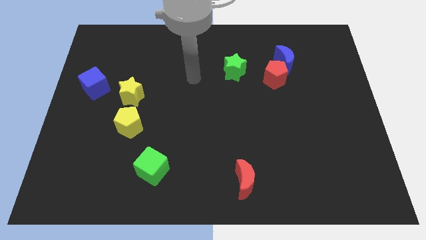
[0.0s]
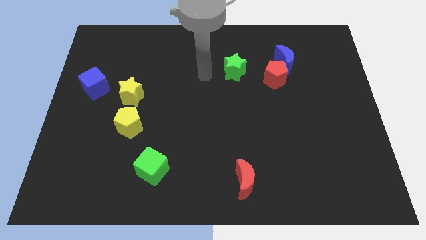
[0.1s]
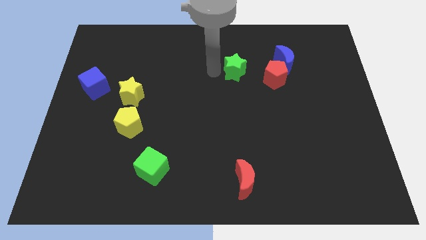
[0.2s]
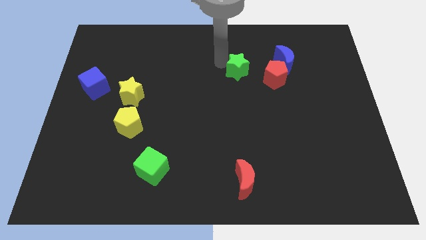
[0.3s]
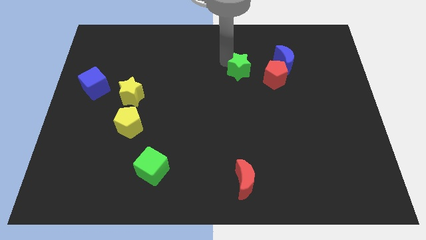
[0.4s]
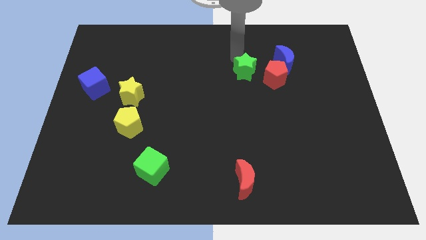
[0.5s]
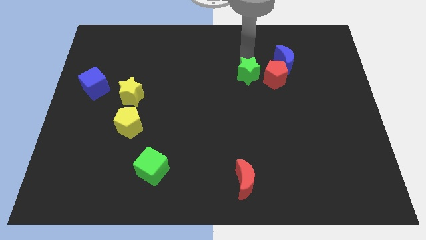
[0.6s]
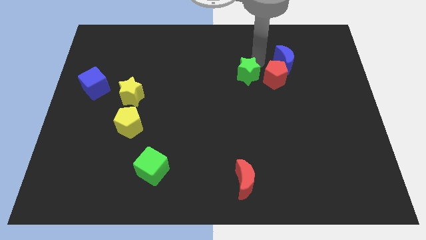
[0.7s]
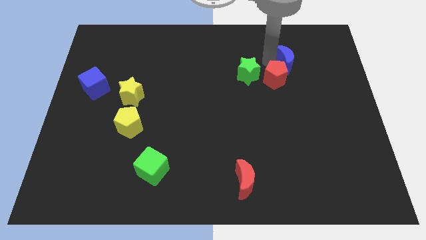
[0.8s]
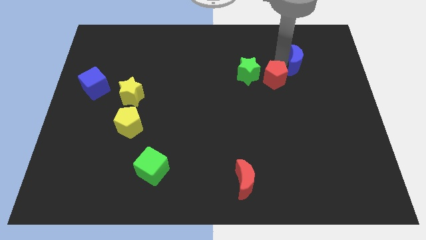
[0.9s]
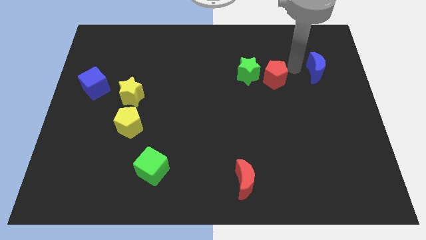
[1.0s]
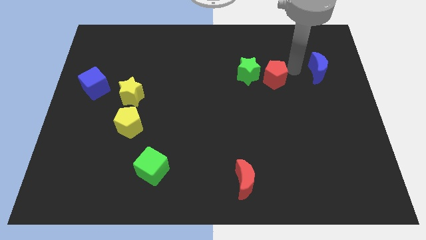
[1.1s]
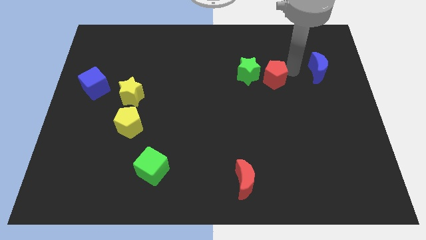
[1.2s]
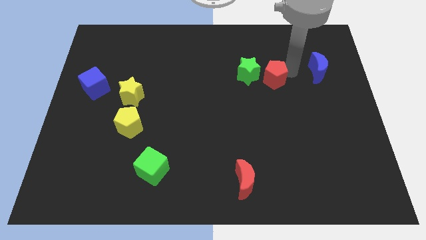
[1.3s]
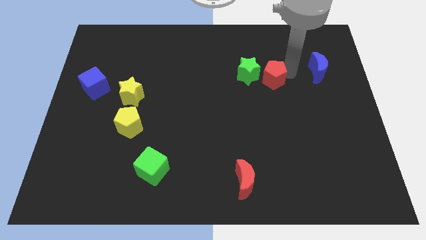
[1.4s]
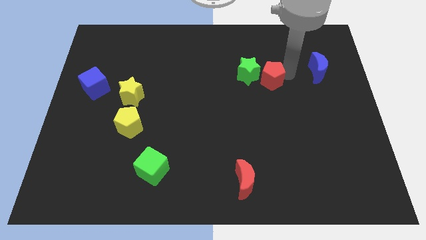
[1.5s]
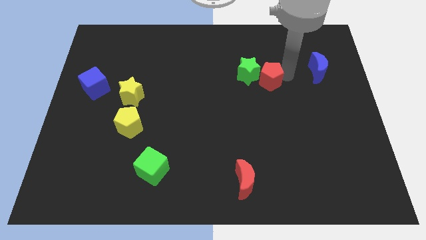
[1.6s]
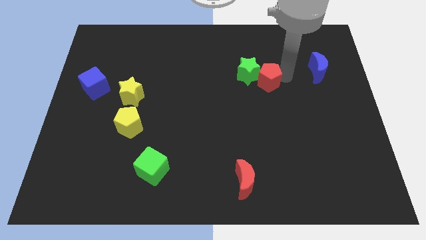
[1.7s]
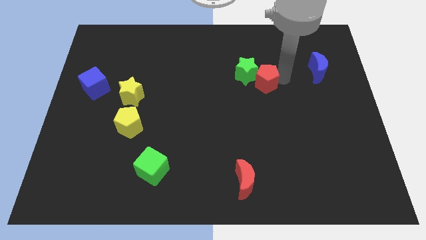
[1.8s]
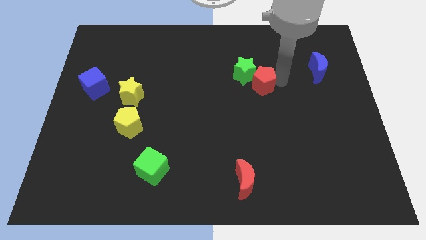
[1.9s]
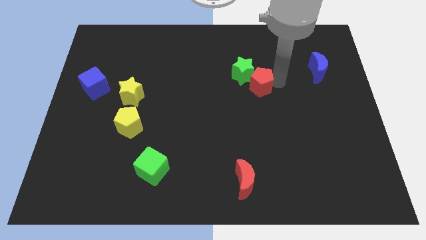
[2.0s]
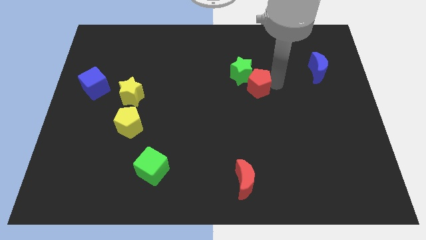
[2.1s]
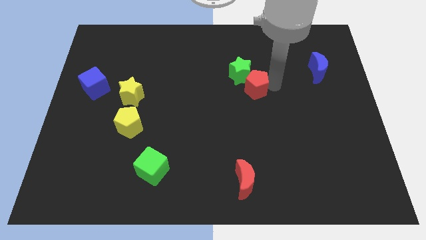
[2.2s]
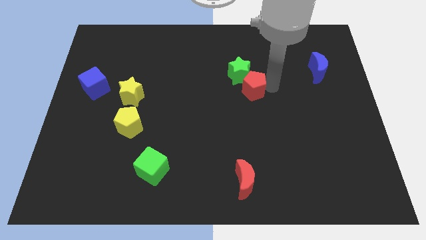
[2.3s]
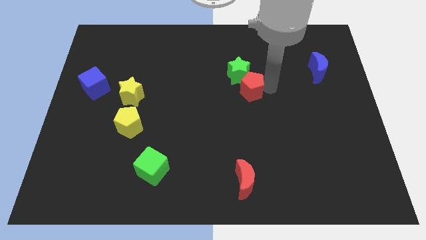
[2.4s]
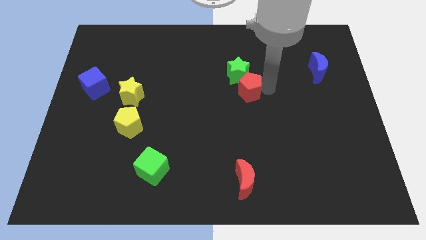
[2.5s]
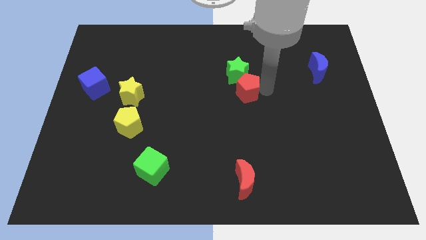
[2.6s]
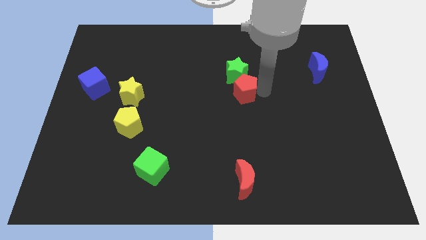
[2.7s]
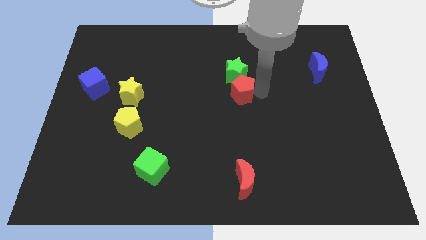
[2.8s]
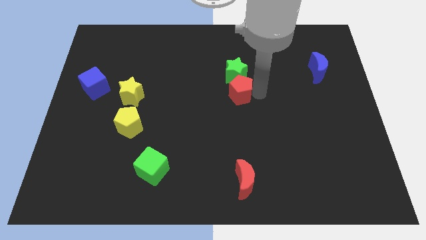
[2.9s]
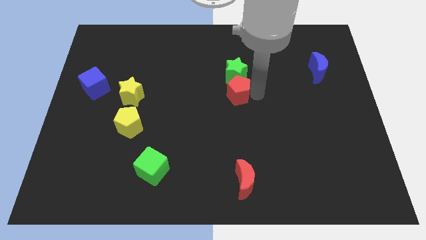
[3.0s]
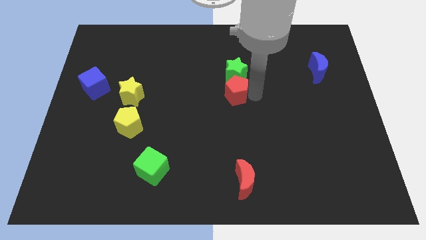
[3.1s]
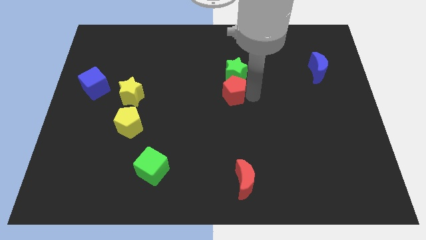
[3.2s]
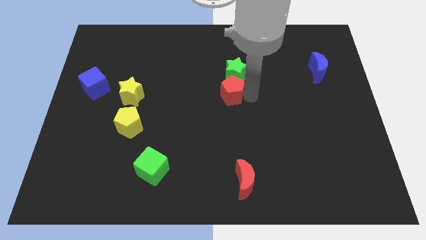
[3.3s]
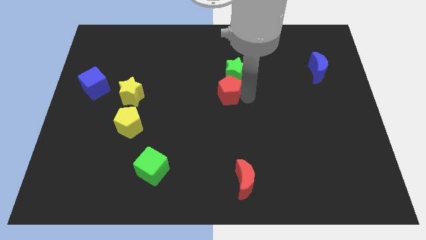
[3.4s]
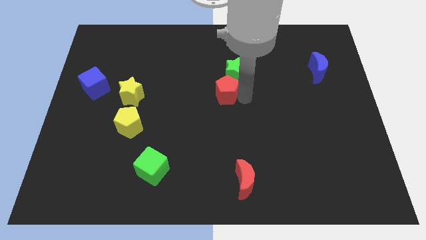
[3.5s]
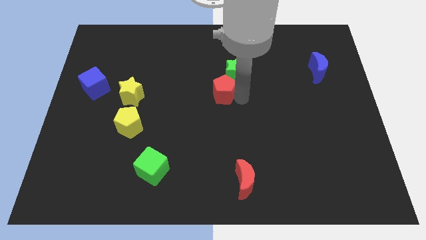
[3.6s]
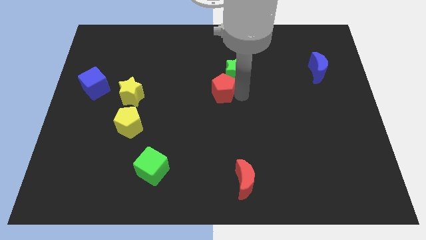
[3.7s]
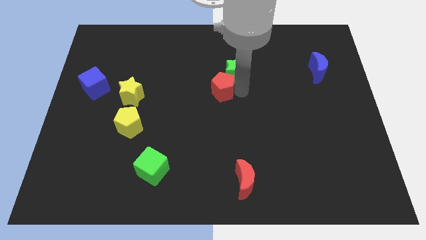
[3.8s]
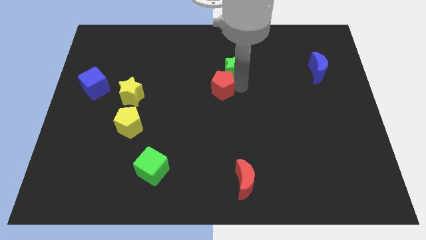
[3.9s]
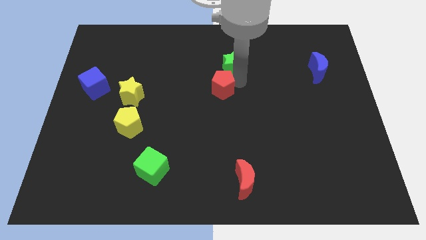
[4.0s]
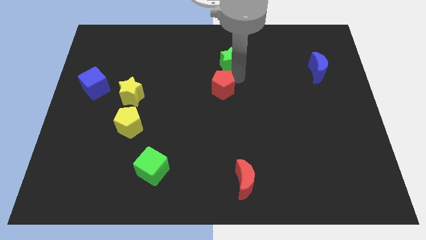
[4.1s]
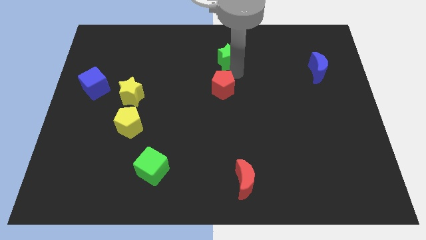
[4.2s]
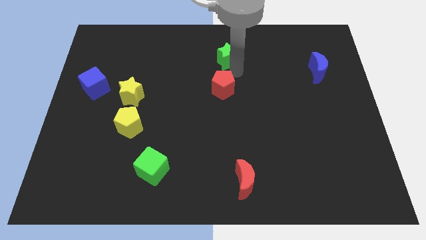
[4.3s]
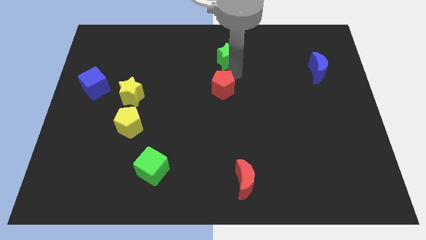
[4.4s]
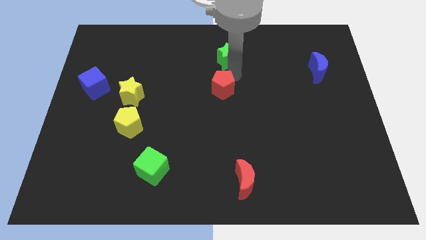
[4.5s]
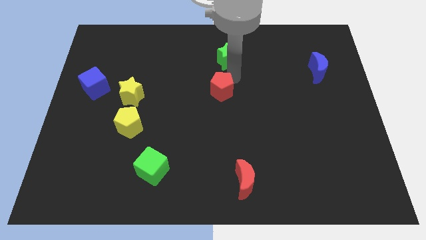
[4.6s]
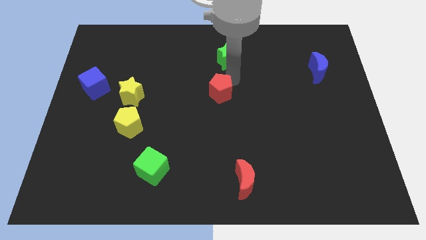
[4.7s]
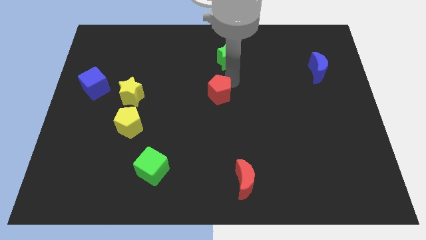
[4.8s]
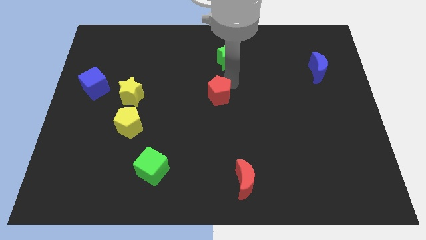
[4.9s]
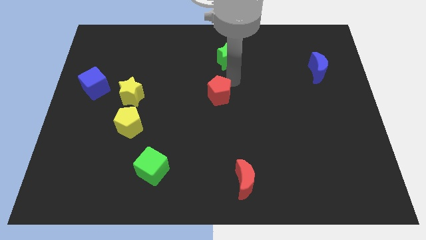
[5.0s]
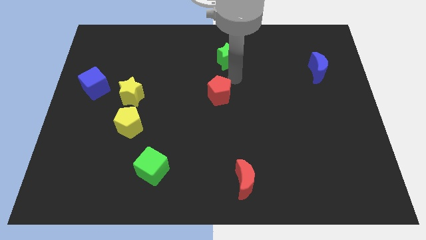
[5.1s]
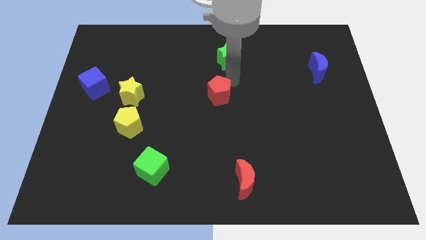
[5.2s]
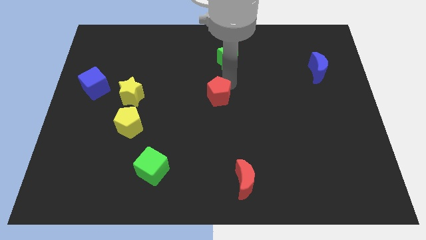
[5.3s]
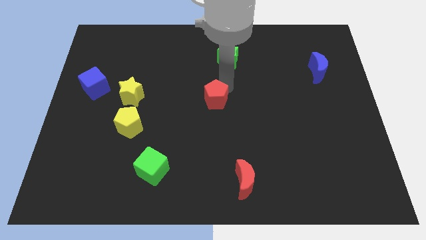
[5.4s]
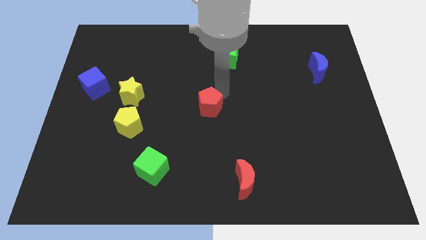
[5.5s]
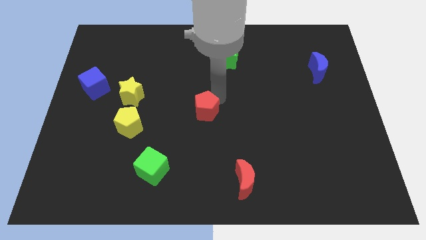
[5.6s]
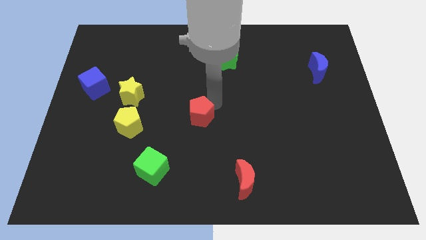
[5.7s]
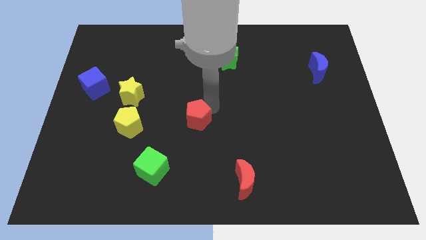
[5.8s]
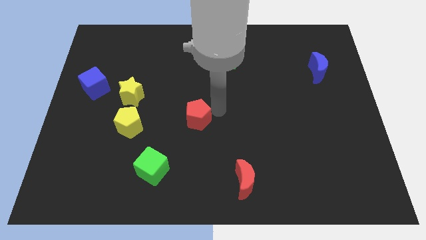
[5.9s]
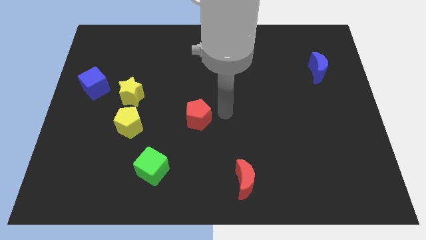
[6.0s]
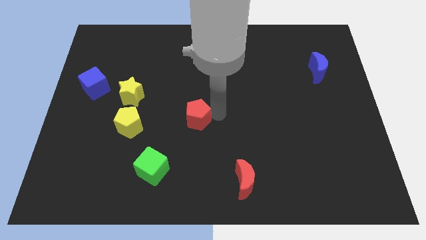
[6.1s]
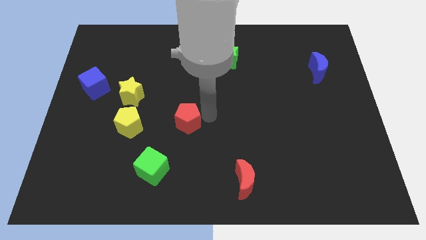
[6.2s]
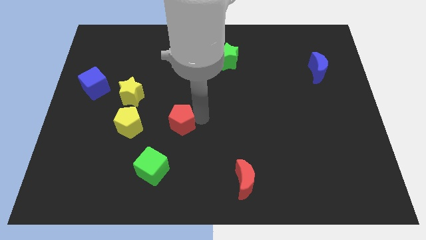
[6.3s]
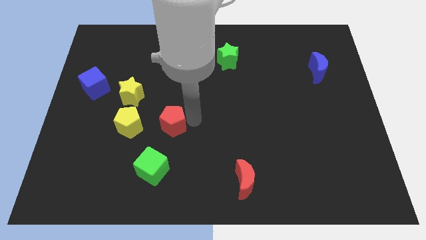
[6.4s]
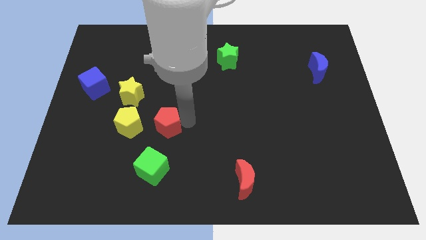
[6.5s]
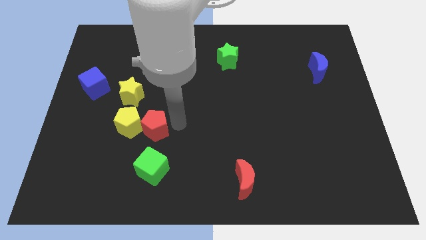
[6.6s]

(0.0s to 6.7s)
put the red pentagon towards the yellow pentagon

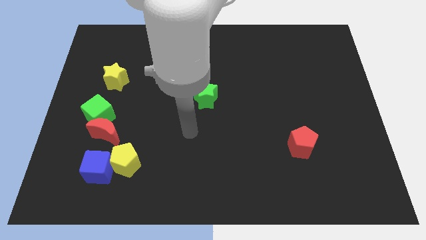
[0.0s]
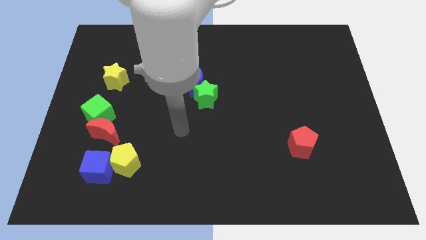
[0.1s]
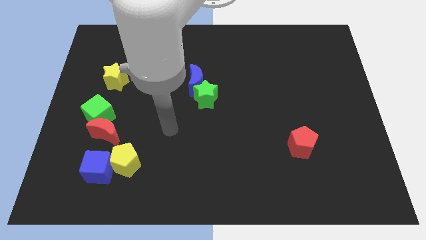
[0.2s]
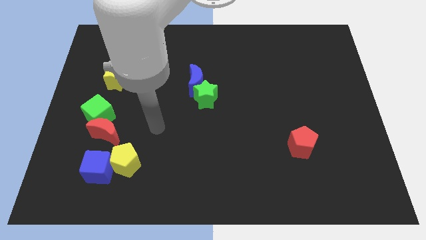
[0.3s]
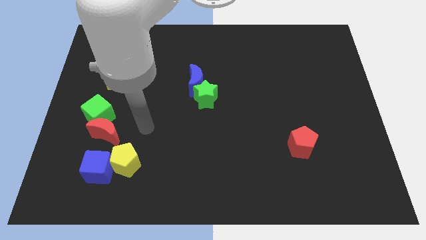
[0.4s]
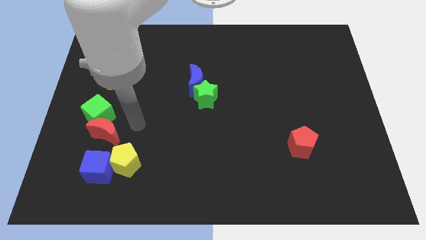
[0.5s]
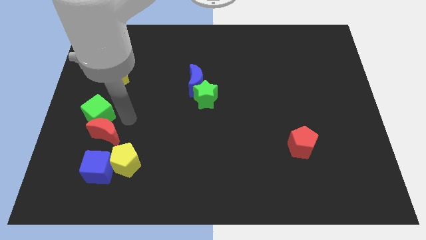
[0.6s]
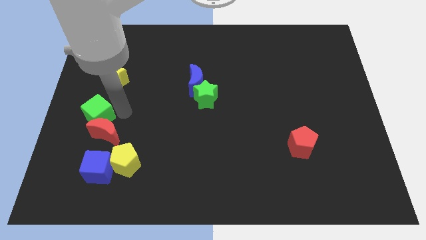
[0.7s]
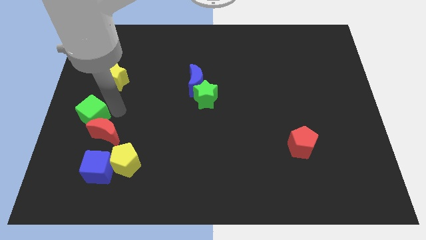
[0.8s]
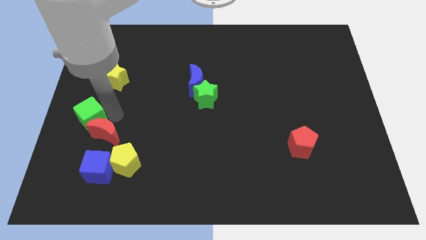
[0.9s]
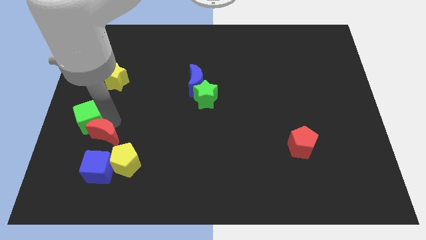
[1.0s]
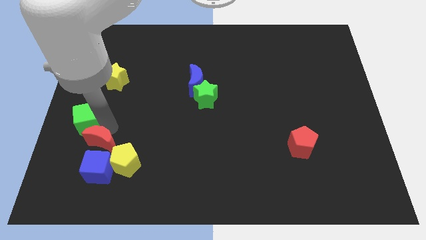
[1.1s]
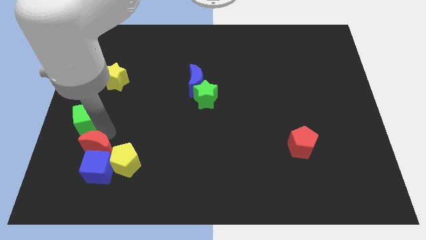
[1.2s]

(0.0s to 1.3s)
slide the red moon close to the blue cube

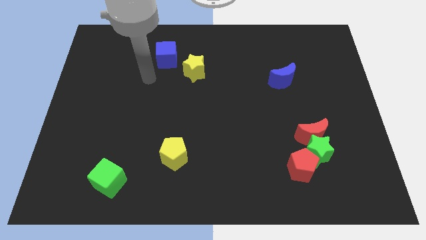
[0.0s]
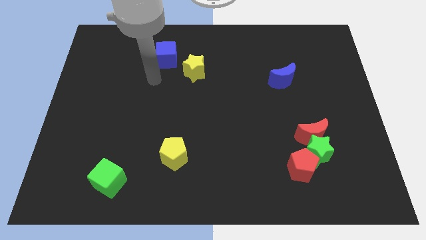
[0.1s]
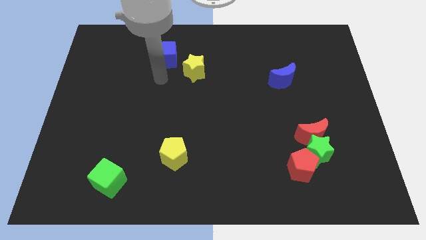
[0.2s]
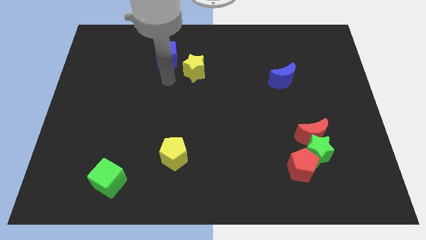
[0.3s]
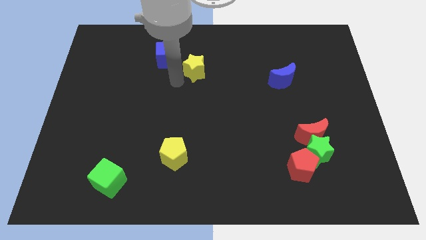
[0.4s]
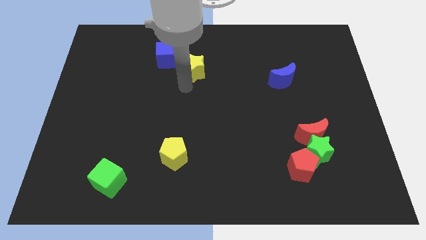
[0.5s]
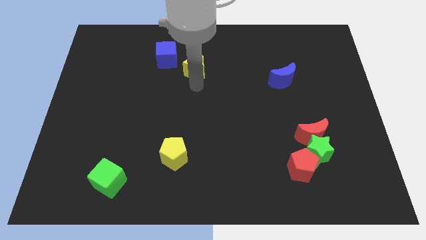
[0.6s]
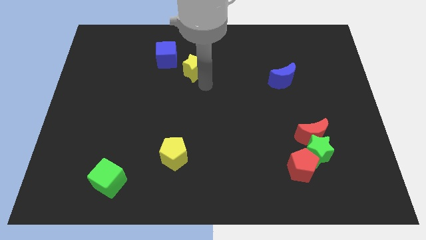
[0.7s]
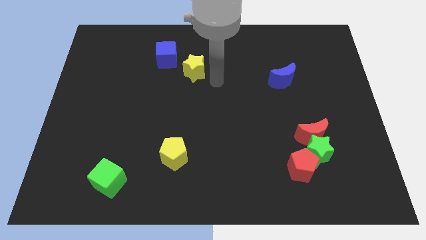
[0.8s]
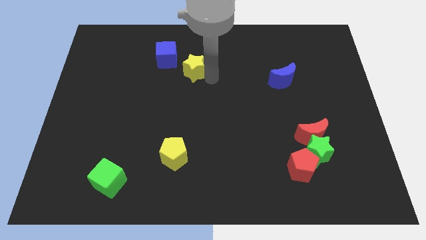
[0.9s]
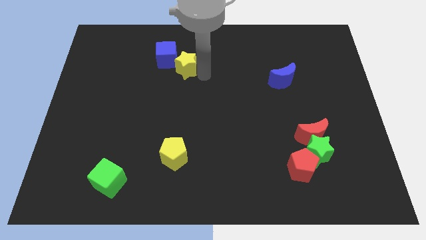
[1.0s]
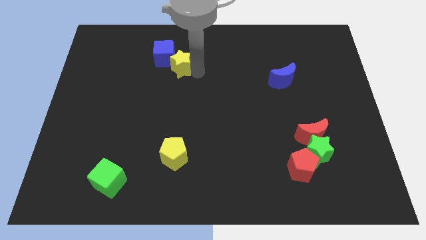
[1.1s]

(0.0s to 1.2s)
put the yellow star close to the blue cube
